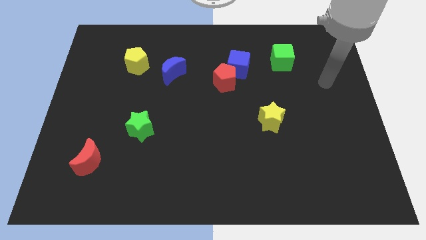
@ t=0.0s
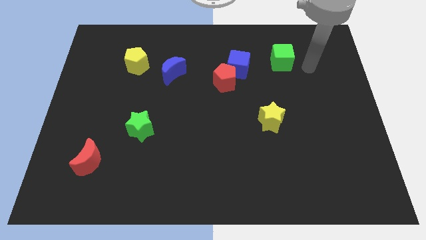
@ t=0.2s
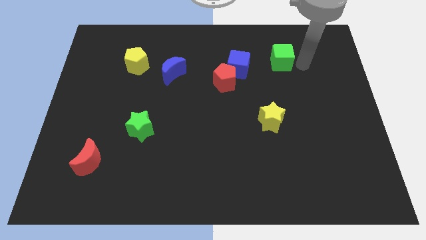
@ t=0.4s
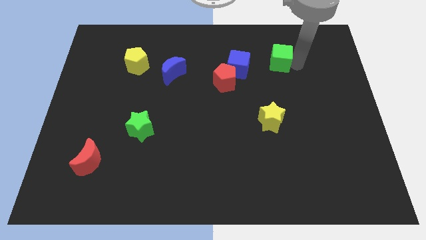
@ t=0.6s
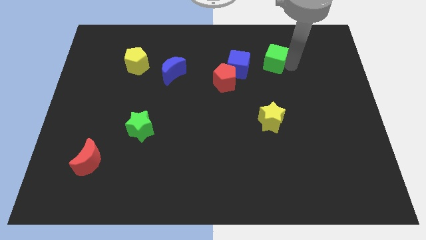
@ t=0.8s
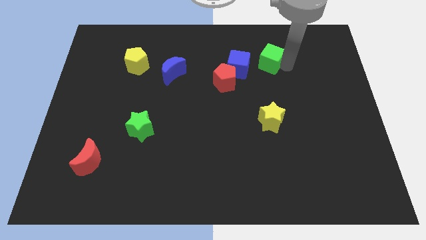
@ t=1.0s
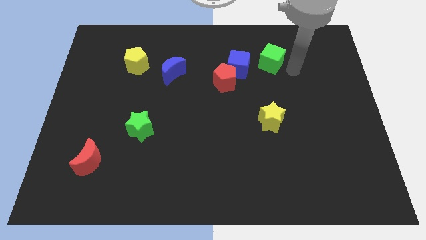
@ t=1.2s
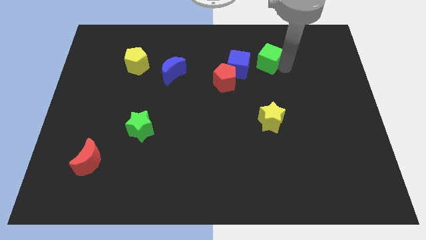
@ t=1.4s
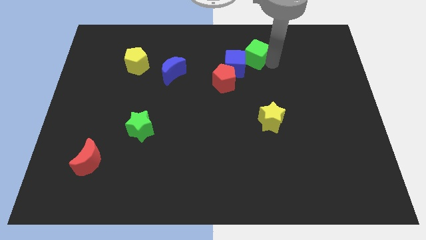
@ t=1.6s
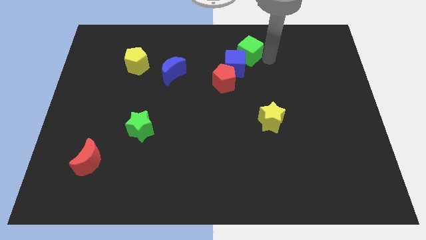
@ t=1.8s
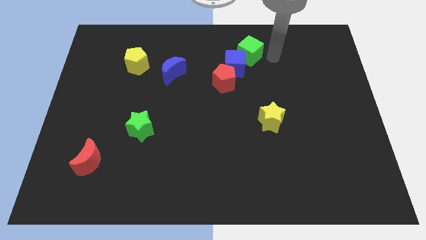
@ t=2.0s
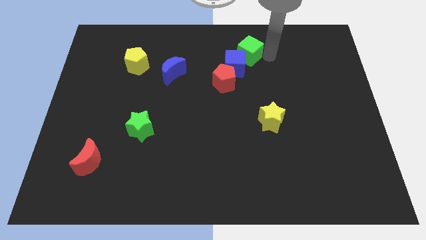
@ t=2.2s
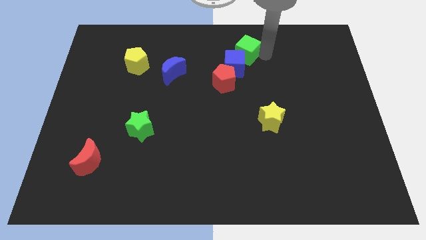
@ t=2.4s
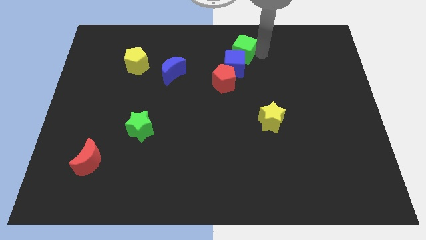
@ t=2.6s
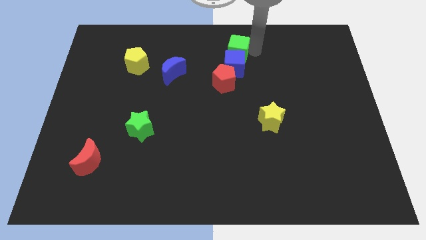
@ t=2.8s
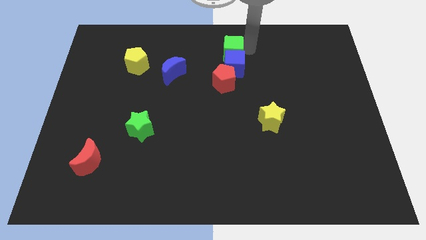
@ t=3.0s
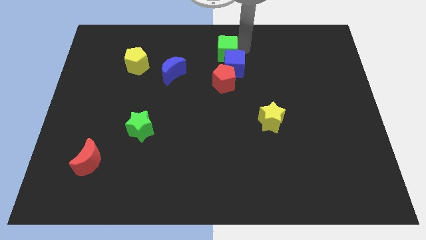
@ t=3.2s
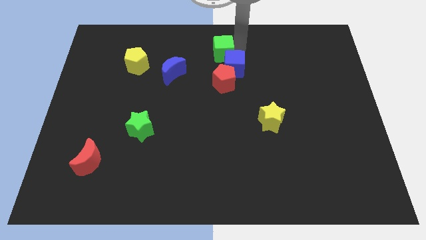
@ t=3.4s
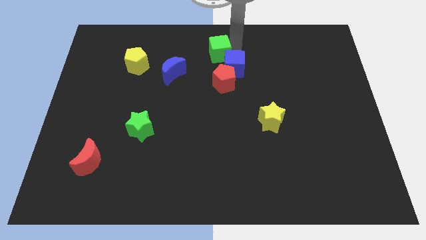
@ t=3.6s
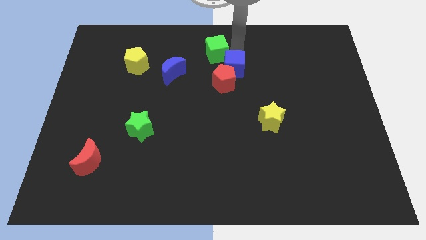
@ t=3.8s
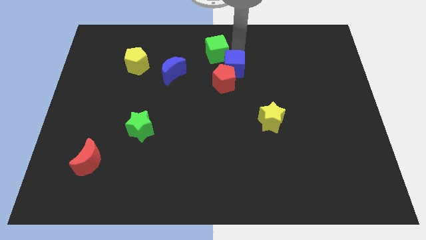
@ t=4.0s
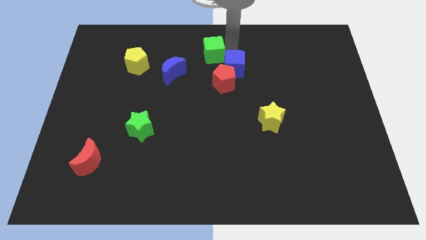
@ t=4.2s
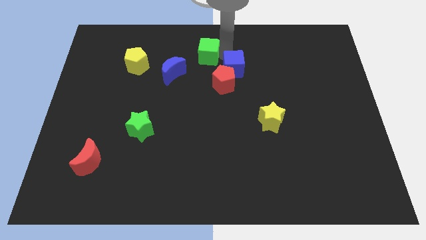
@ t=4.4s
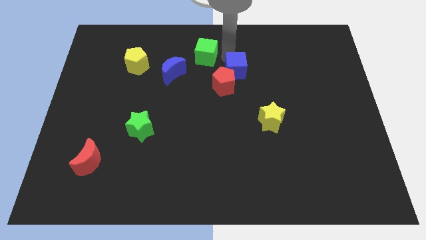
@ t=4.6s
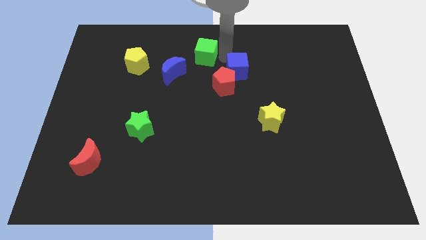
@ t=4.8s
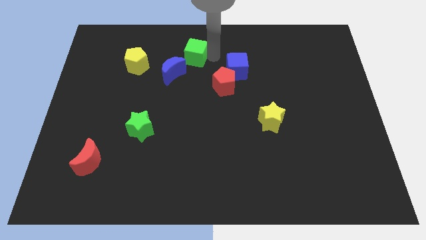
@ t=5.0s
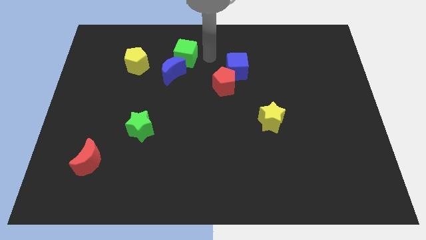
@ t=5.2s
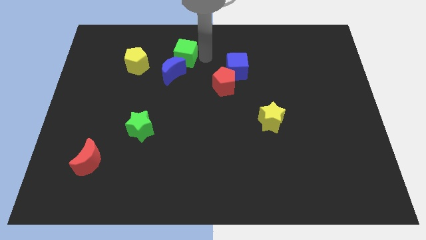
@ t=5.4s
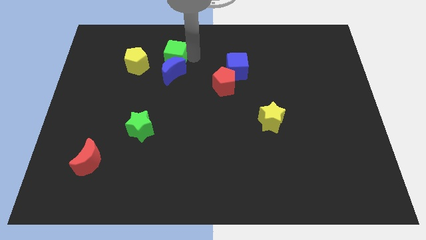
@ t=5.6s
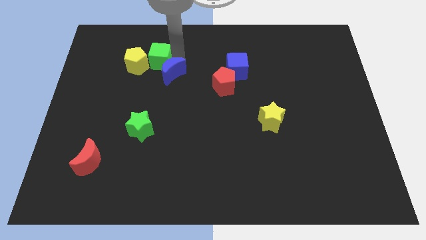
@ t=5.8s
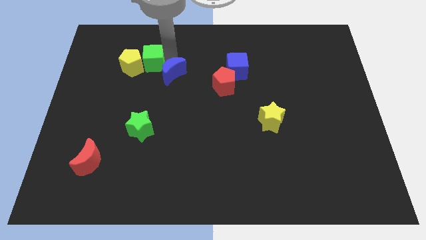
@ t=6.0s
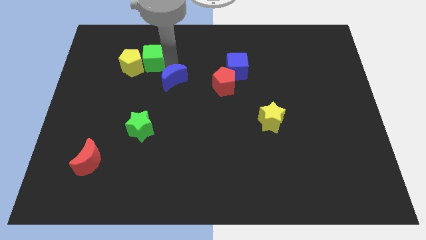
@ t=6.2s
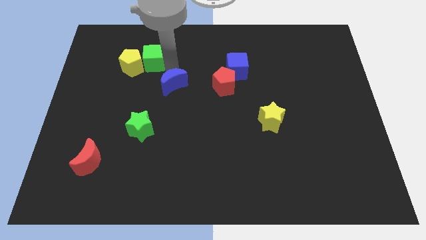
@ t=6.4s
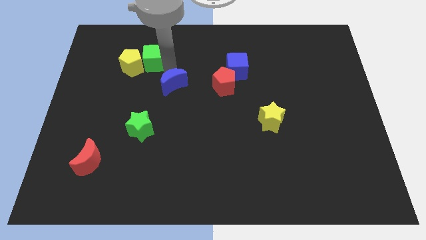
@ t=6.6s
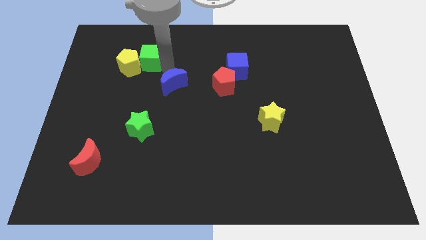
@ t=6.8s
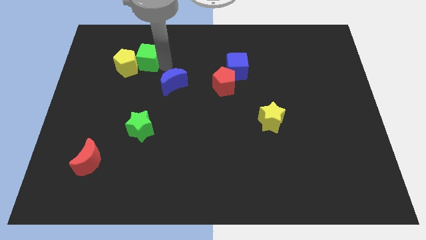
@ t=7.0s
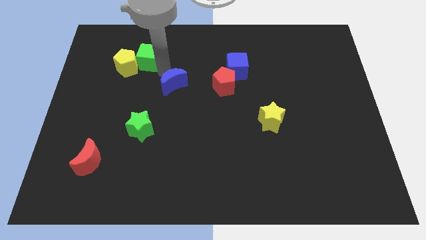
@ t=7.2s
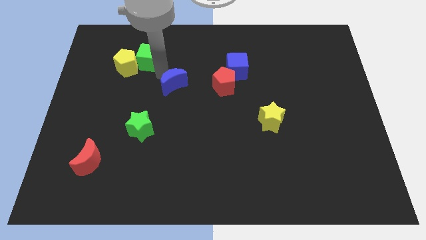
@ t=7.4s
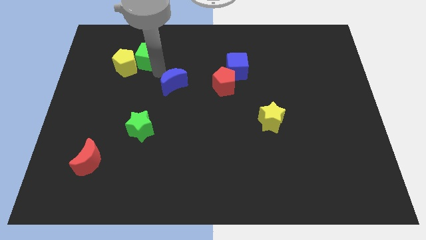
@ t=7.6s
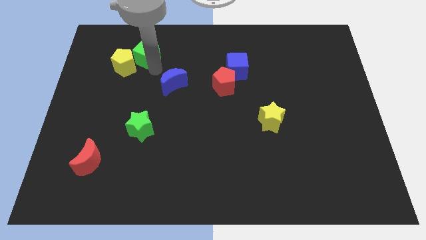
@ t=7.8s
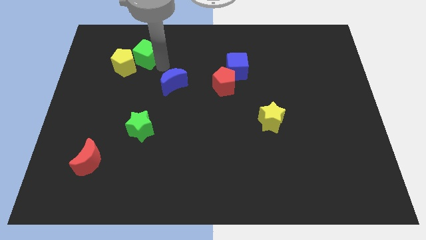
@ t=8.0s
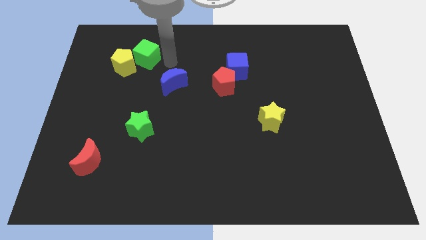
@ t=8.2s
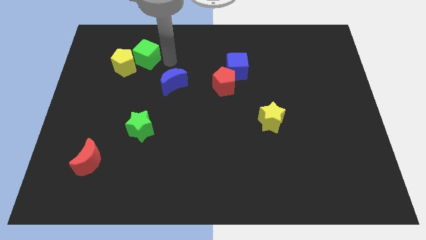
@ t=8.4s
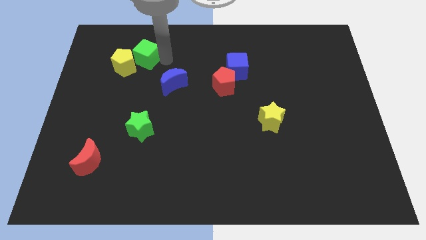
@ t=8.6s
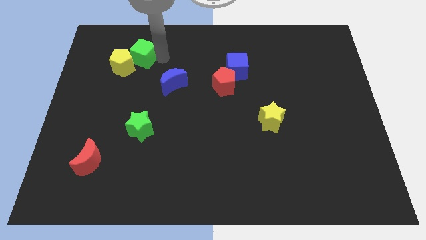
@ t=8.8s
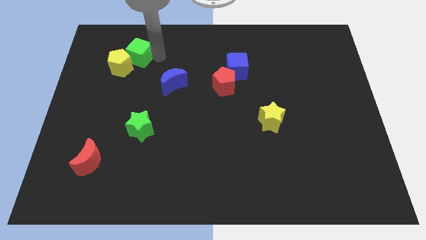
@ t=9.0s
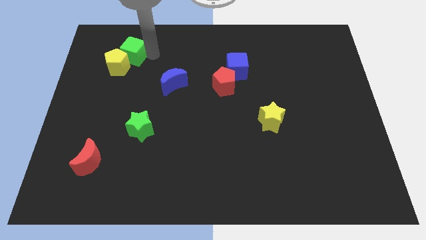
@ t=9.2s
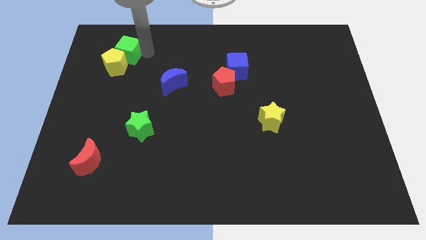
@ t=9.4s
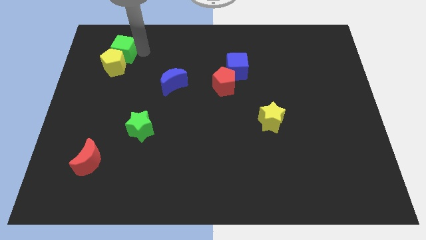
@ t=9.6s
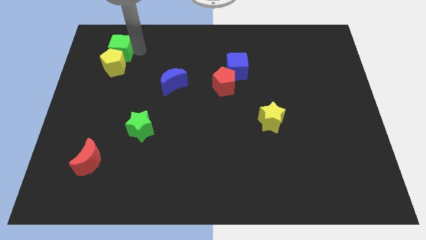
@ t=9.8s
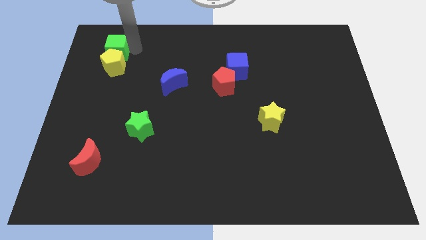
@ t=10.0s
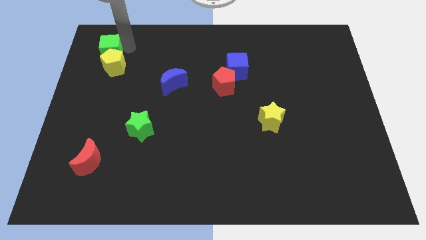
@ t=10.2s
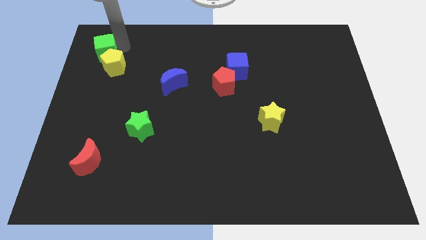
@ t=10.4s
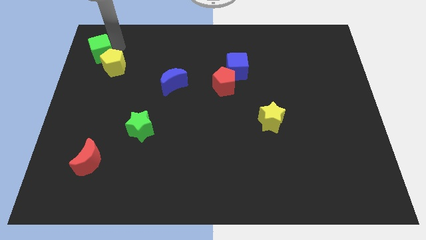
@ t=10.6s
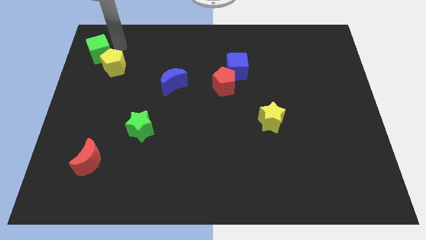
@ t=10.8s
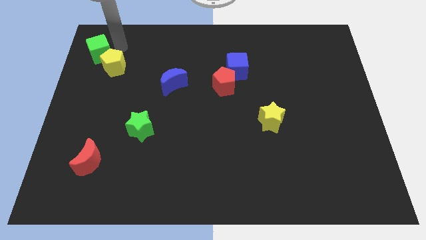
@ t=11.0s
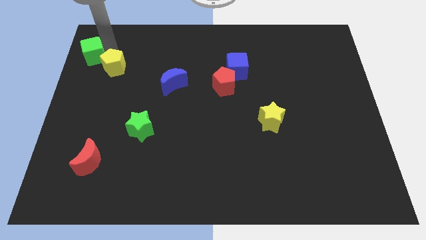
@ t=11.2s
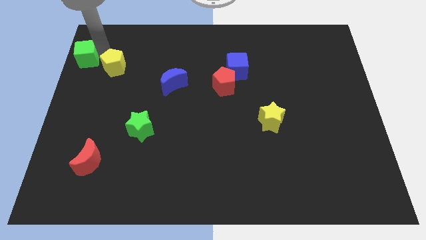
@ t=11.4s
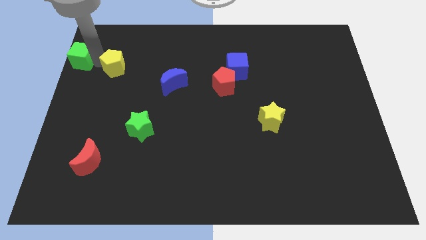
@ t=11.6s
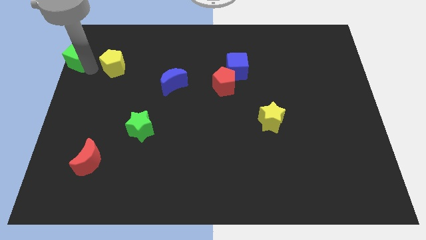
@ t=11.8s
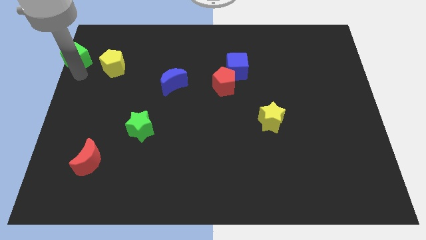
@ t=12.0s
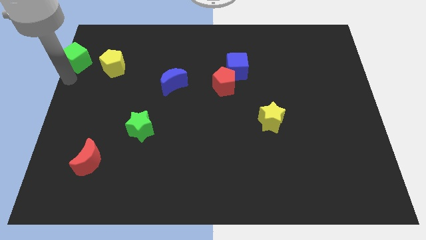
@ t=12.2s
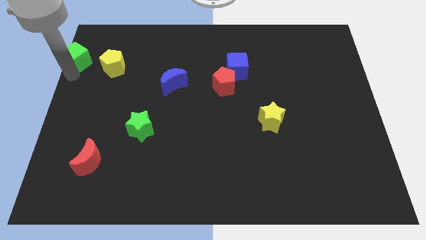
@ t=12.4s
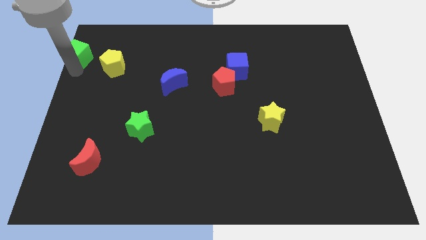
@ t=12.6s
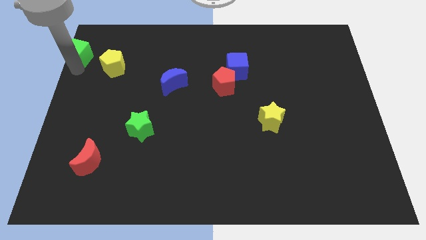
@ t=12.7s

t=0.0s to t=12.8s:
move the green cube to the top left

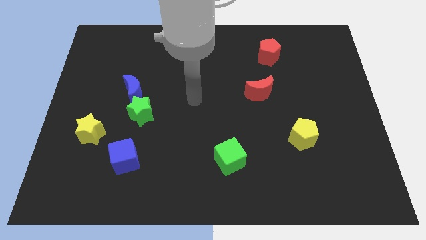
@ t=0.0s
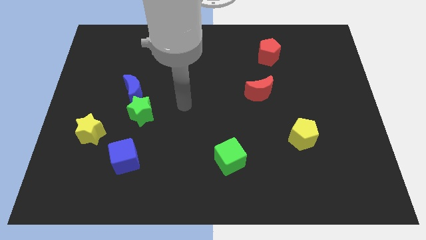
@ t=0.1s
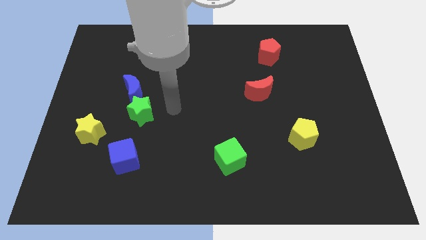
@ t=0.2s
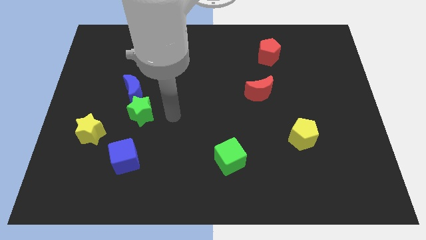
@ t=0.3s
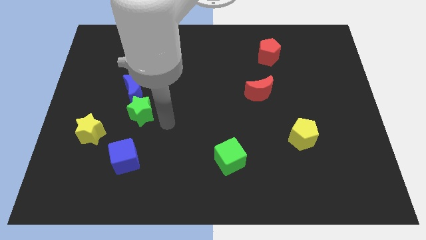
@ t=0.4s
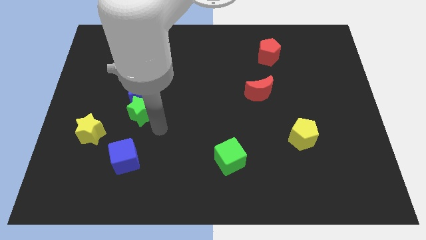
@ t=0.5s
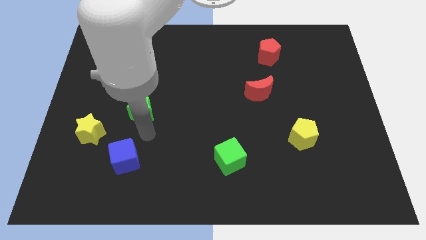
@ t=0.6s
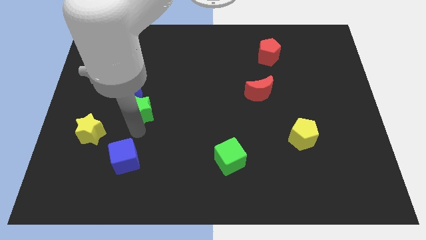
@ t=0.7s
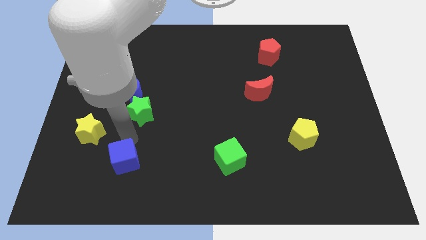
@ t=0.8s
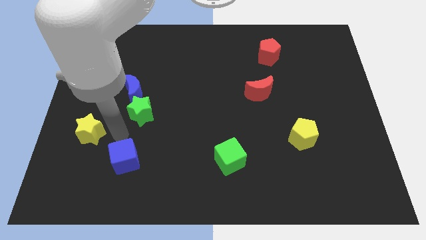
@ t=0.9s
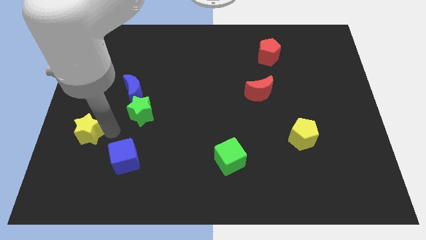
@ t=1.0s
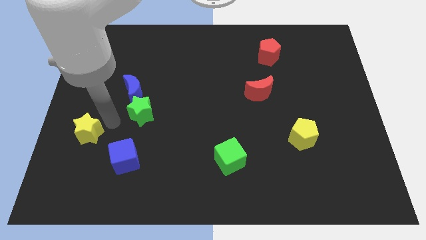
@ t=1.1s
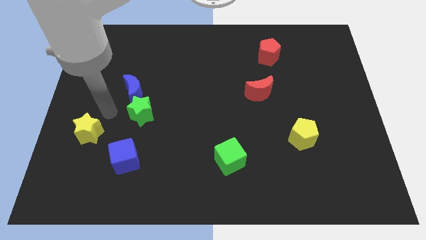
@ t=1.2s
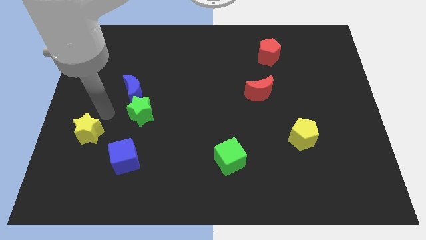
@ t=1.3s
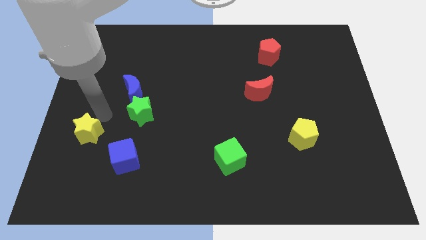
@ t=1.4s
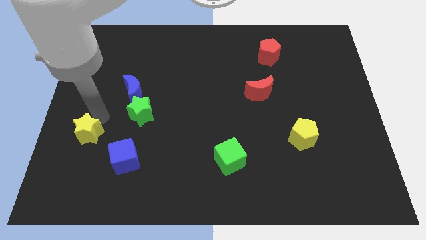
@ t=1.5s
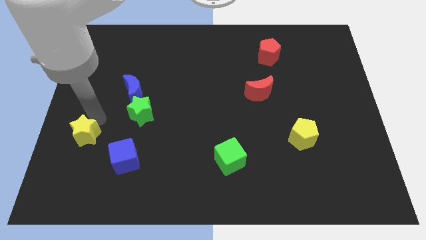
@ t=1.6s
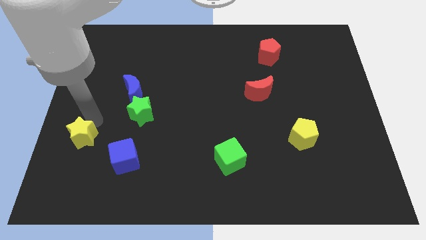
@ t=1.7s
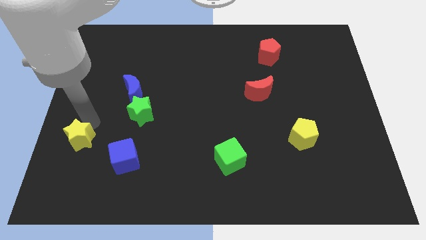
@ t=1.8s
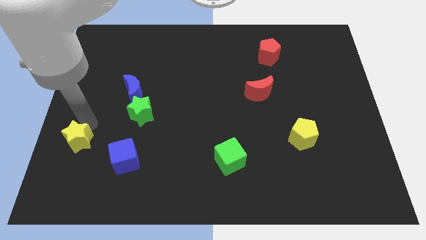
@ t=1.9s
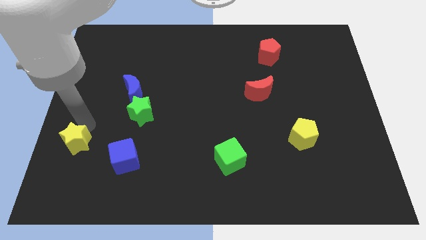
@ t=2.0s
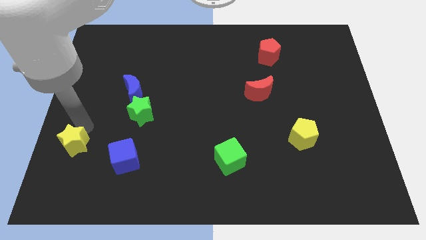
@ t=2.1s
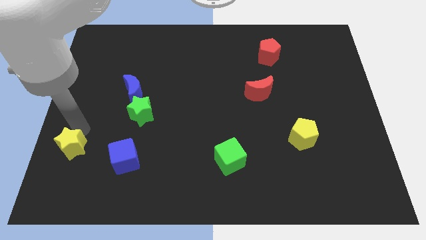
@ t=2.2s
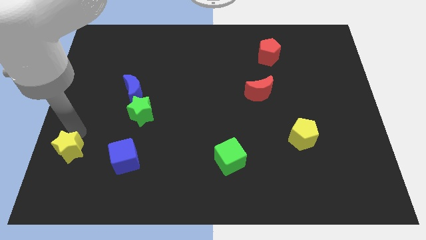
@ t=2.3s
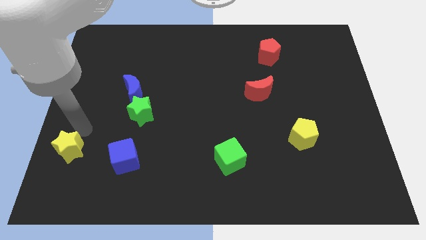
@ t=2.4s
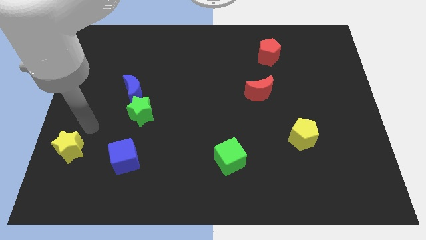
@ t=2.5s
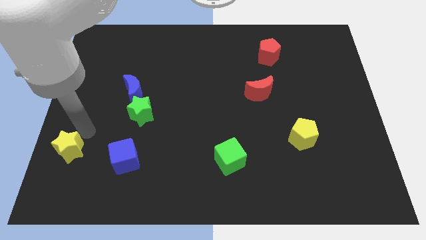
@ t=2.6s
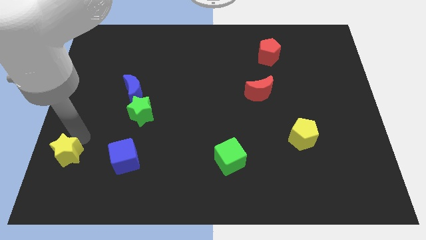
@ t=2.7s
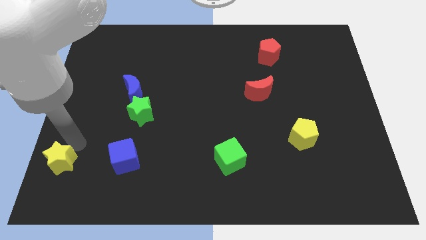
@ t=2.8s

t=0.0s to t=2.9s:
move the yellow star to the bottom left of the board
